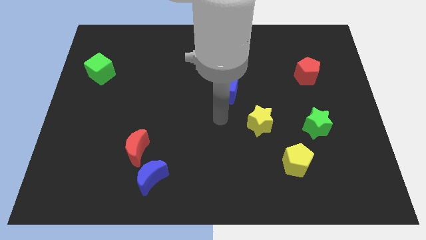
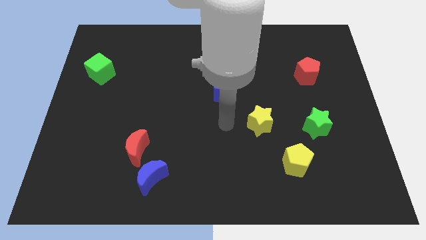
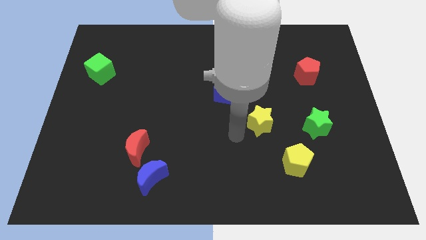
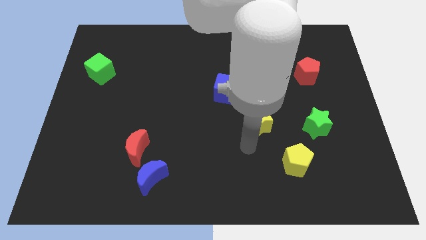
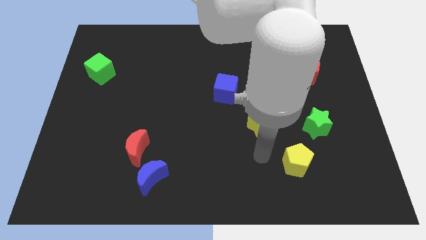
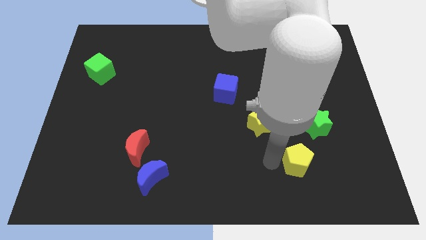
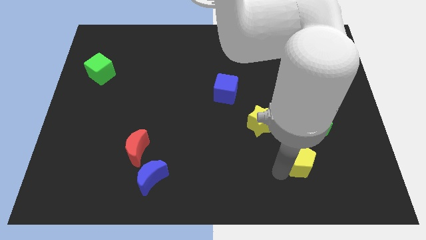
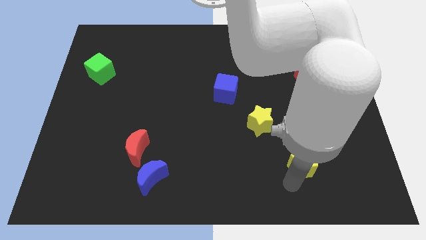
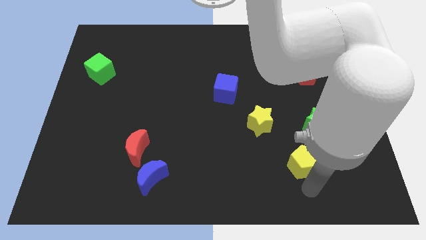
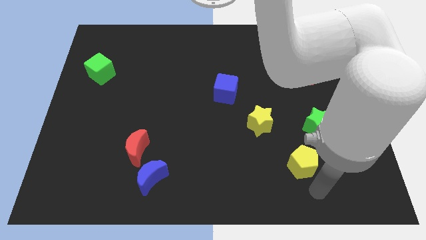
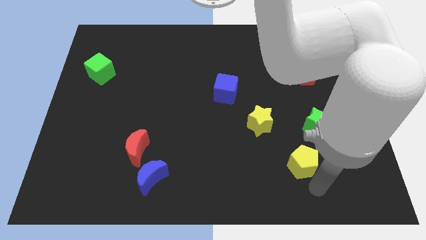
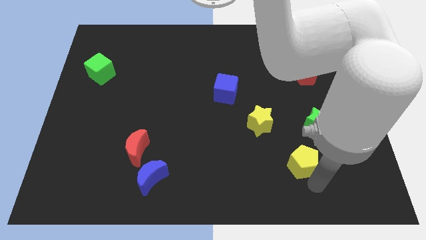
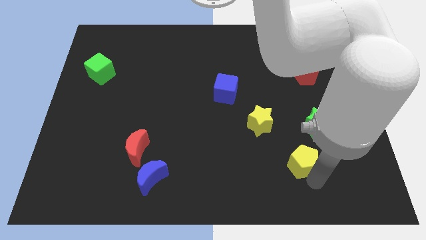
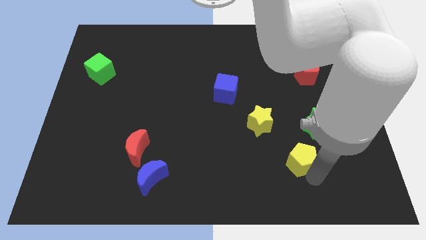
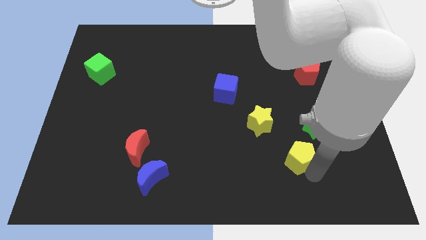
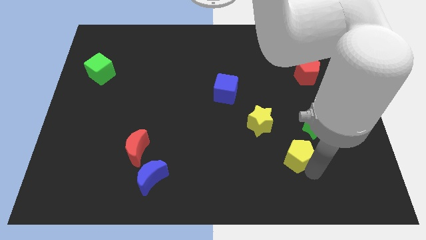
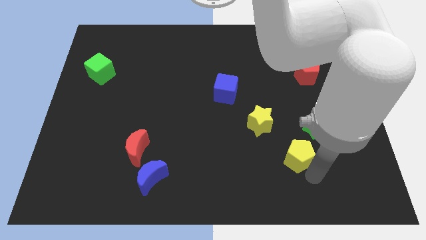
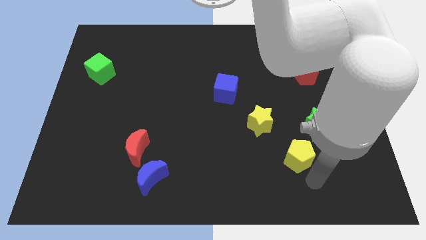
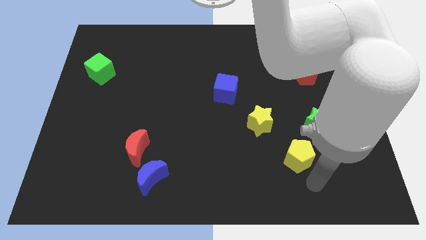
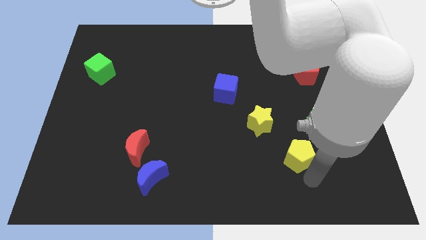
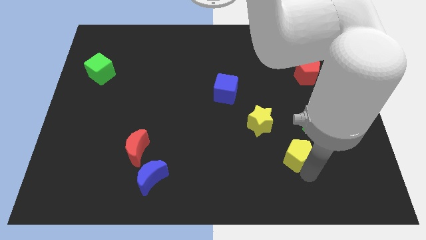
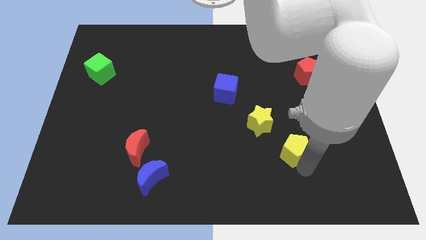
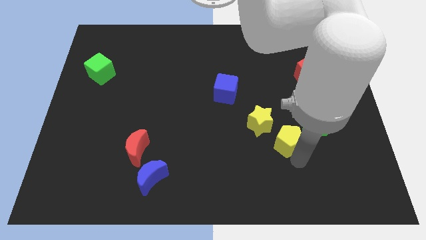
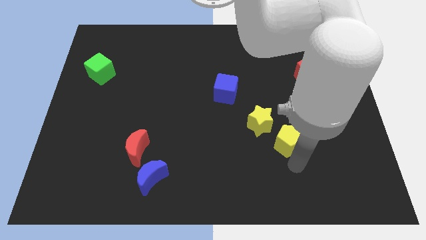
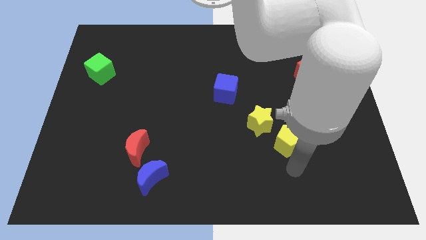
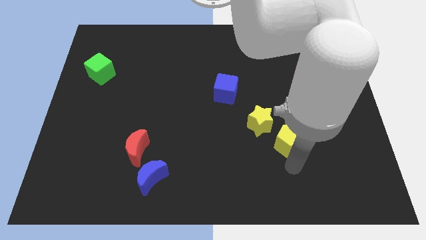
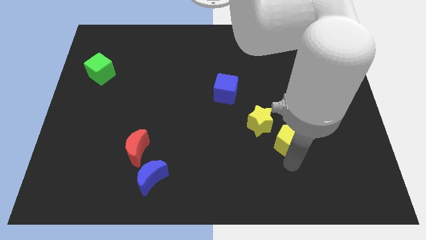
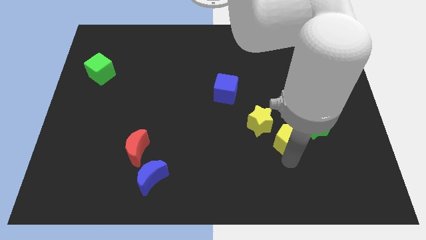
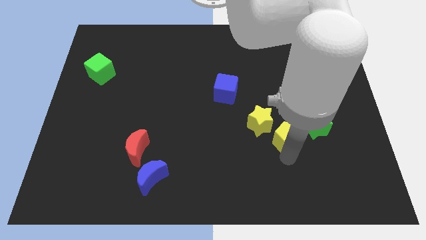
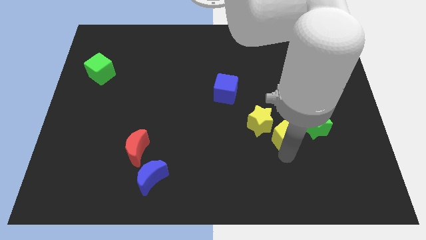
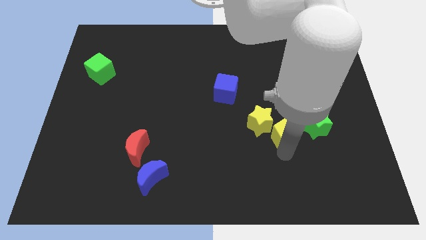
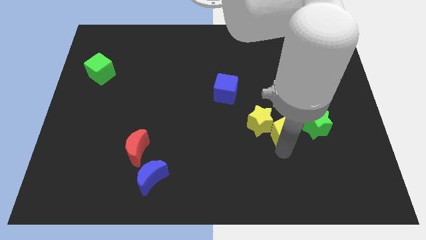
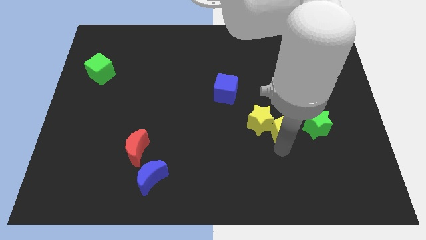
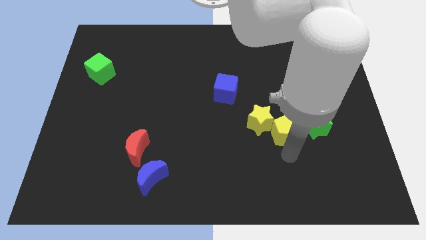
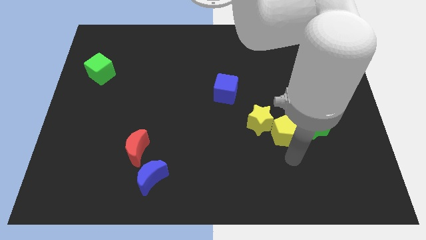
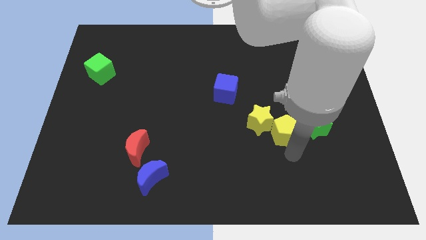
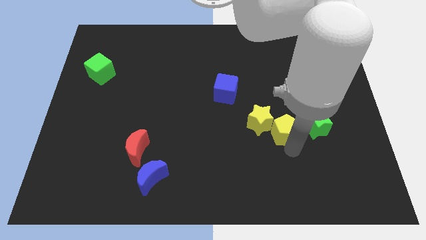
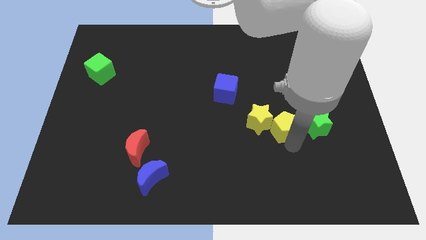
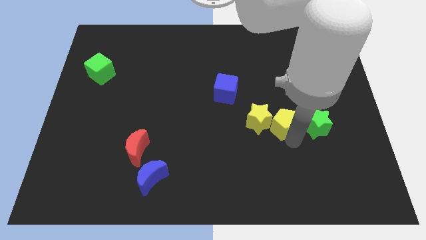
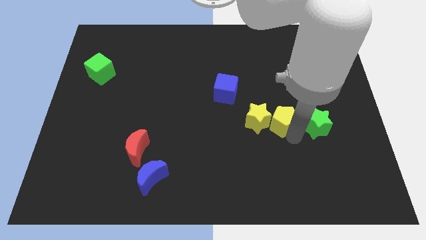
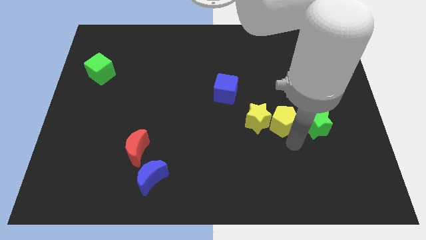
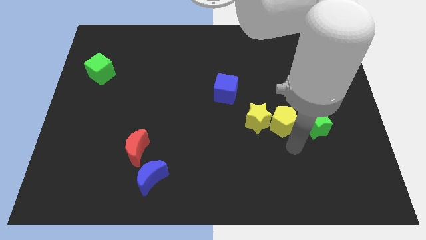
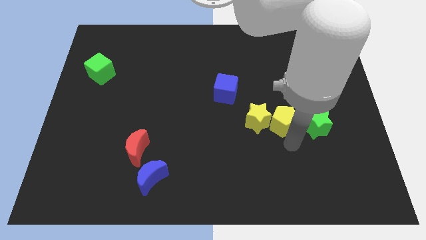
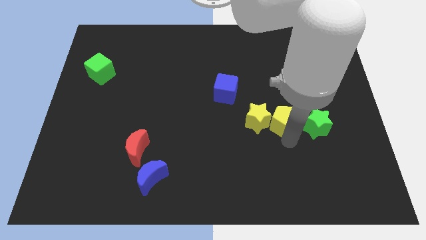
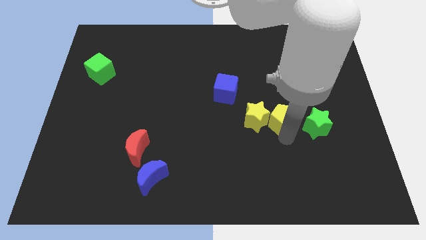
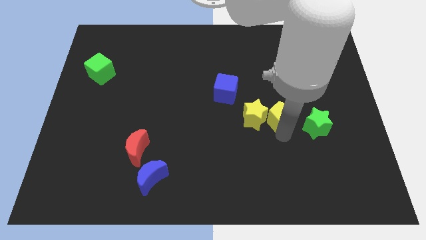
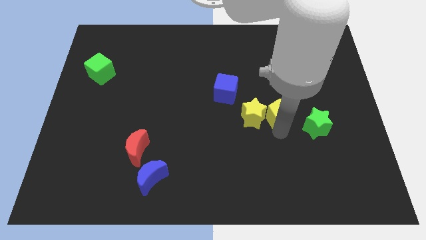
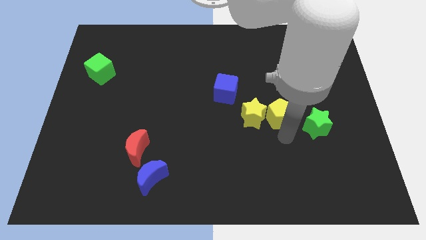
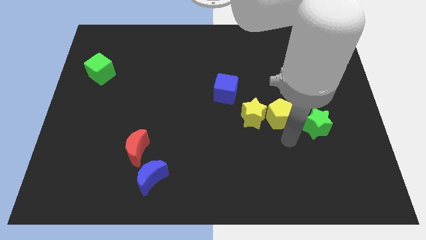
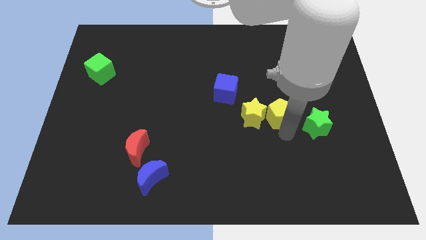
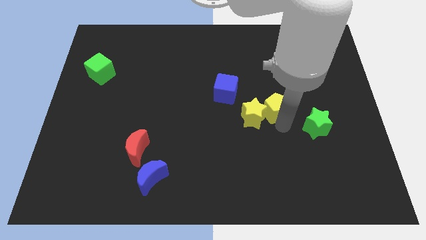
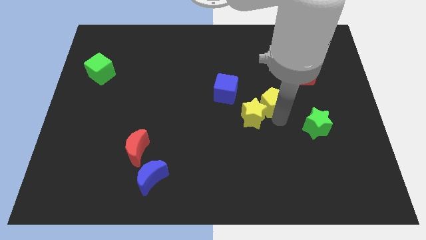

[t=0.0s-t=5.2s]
slide the yellow pentagon to the right side of the blue cube

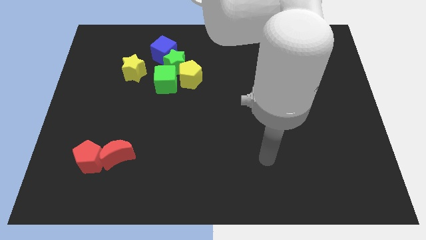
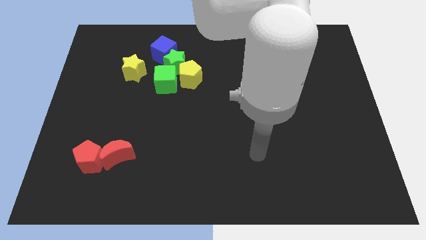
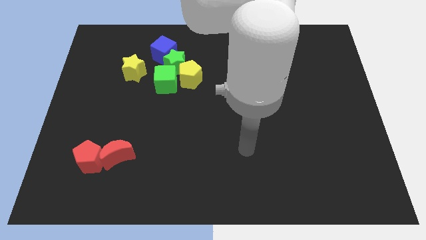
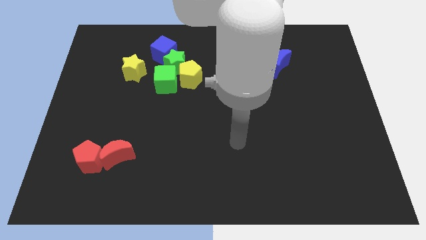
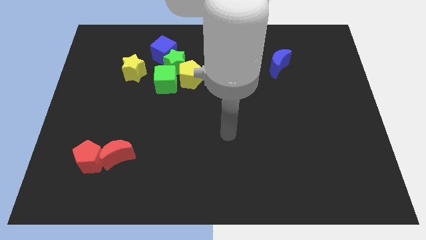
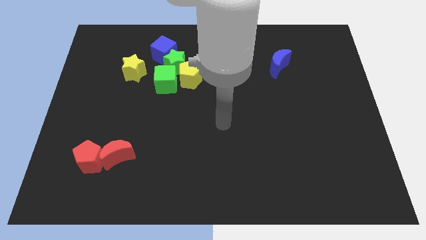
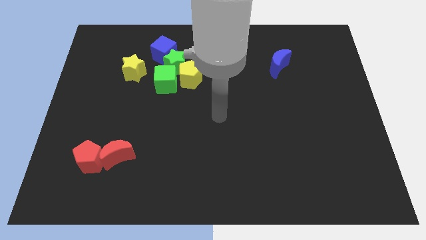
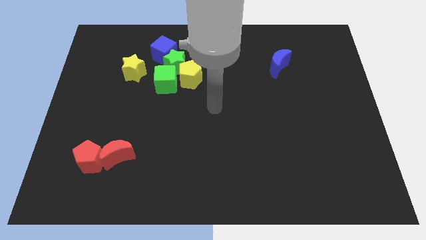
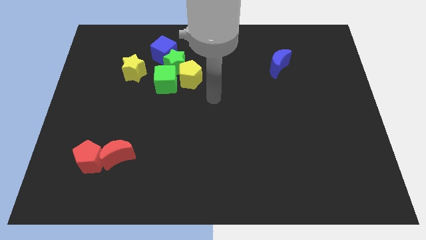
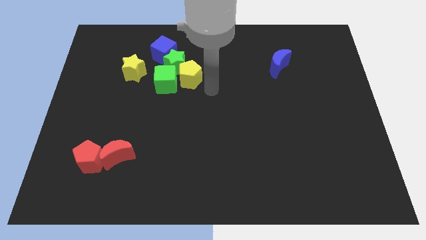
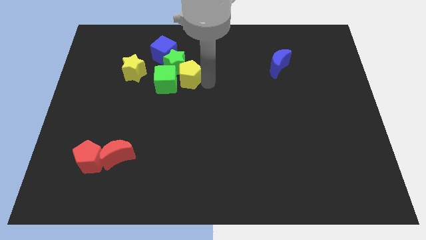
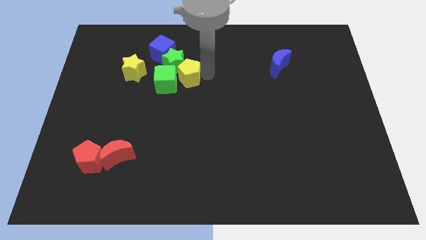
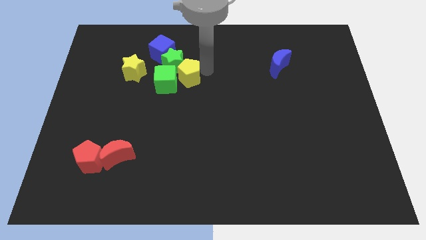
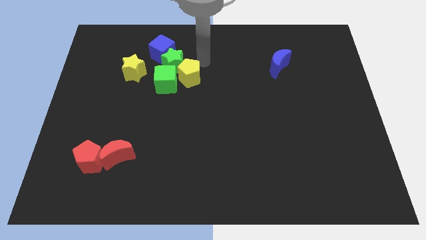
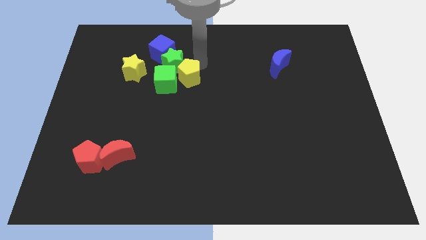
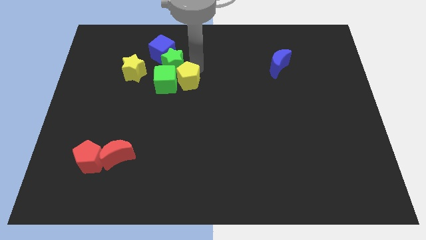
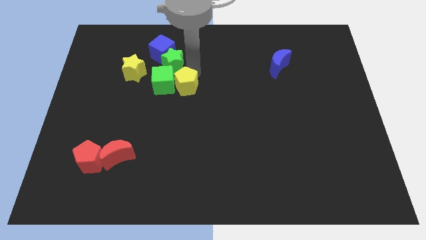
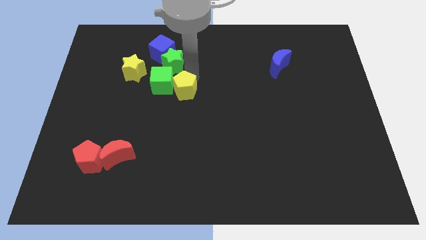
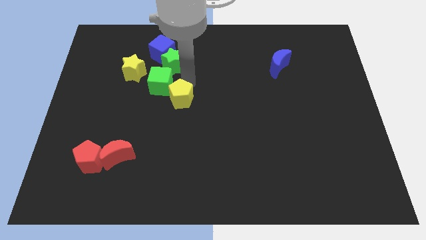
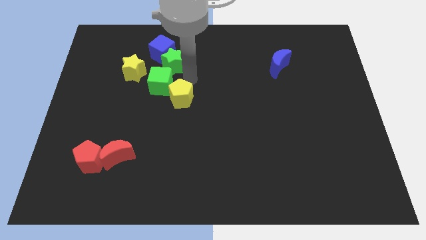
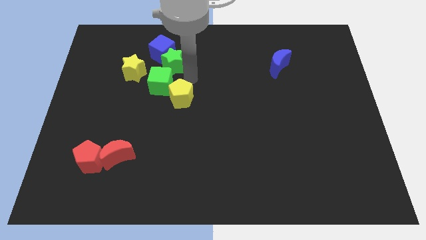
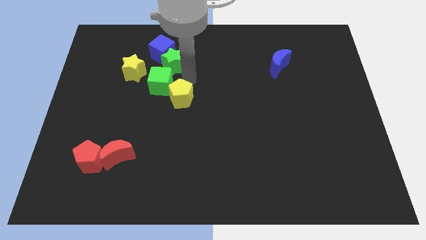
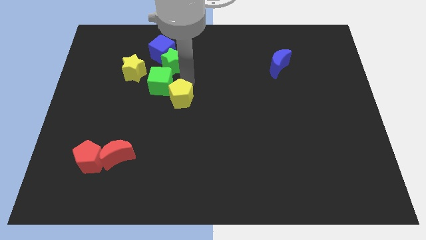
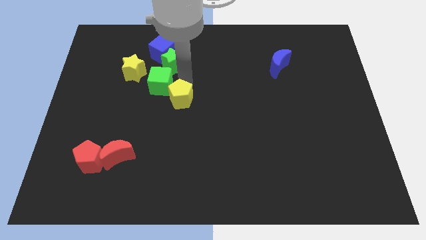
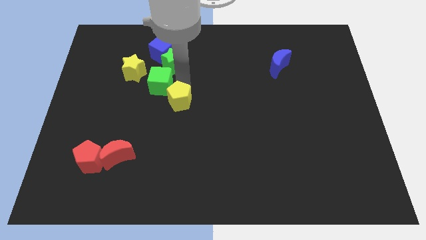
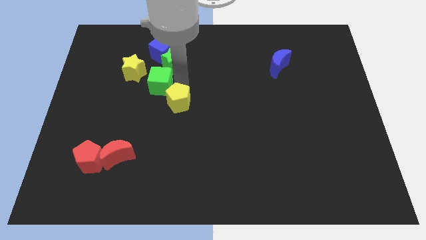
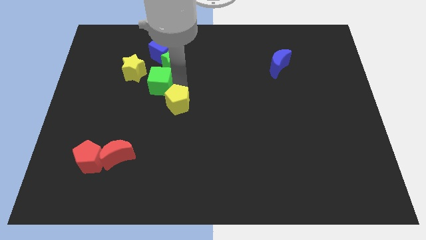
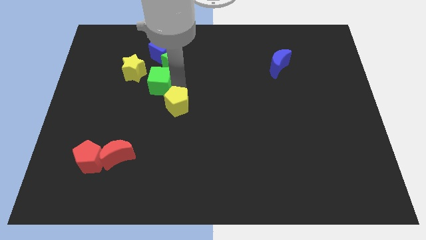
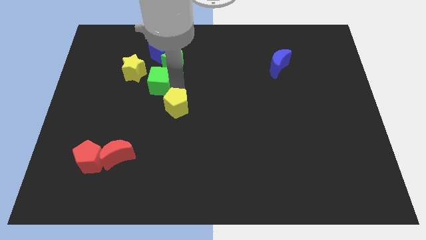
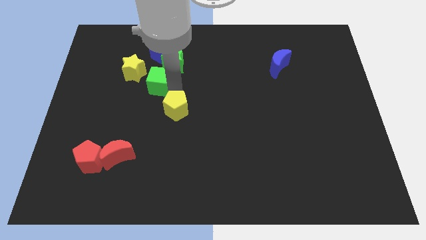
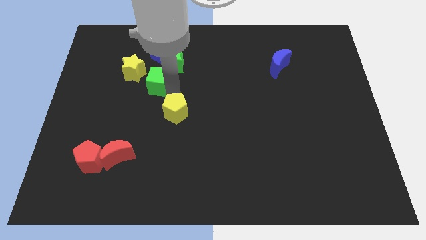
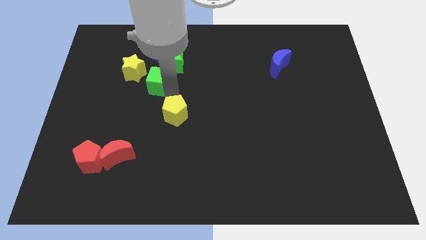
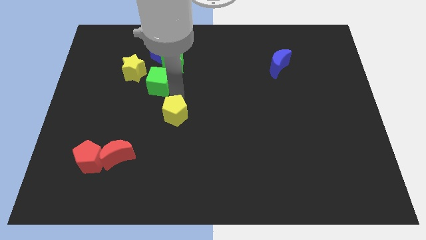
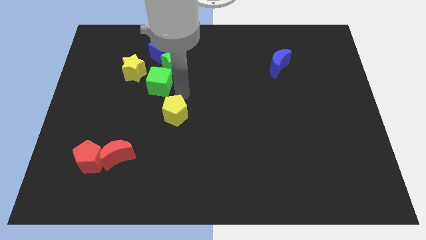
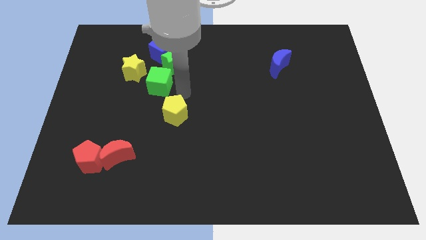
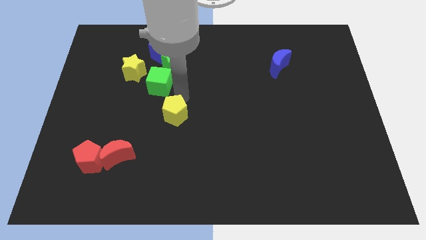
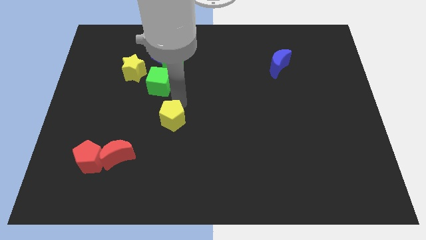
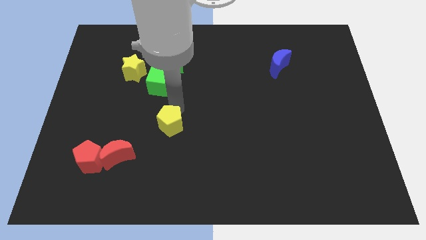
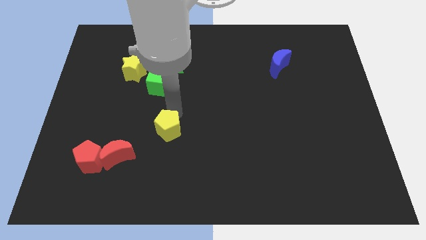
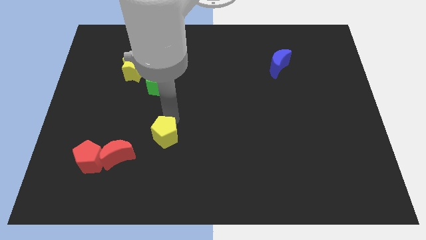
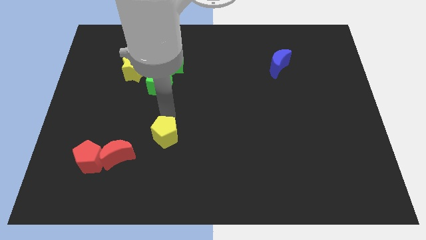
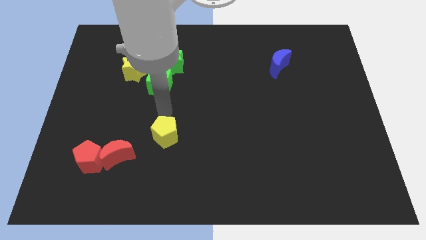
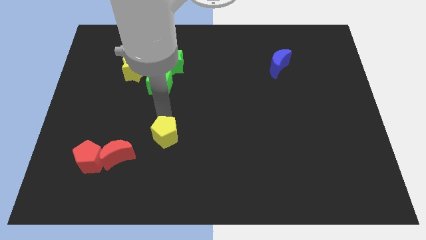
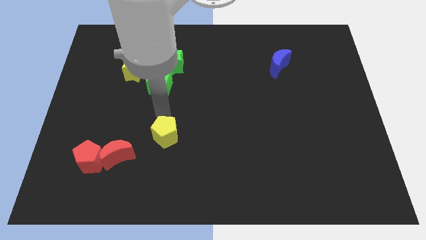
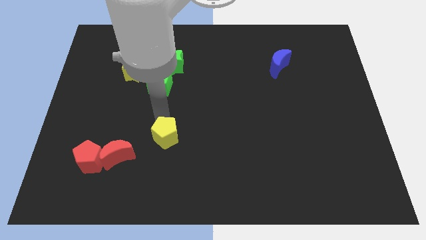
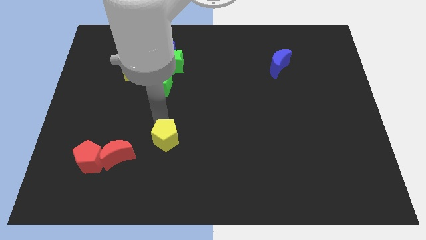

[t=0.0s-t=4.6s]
put the yellow pentagon just right of the red moon
